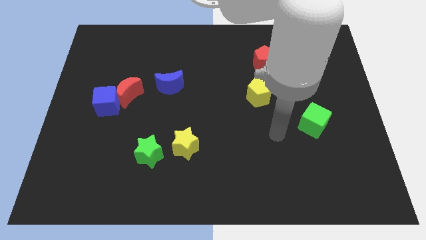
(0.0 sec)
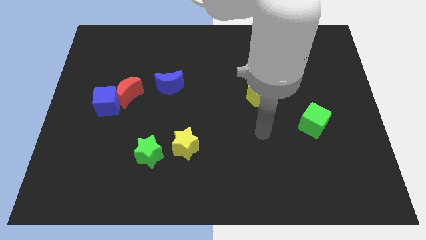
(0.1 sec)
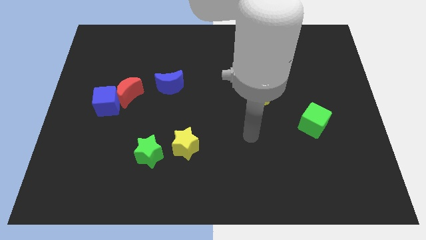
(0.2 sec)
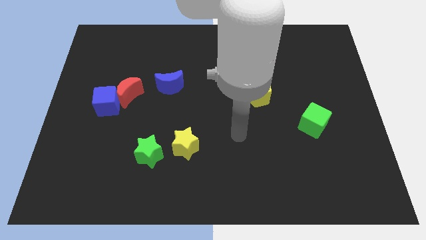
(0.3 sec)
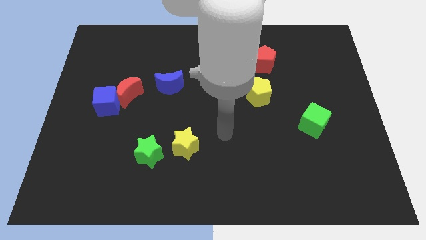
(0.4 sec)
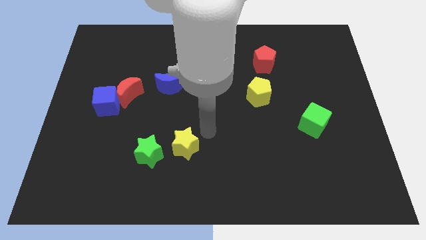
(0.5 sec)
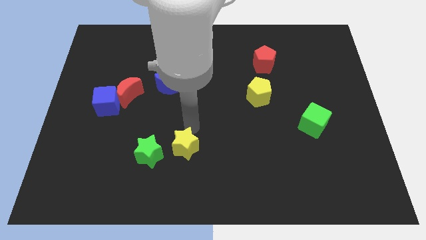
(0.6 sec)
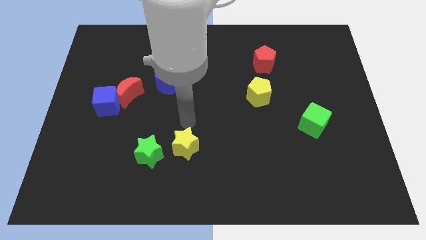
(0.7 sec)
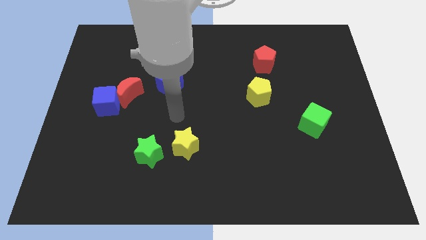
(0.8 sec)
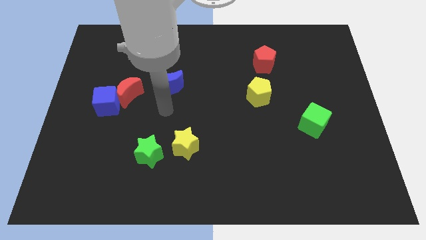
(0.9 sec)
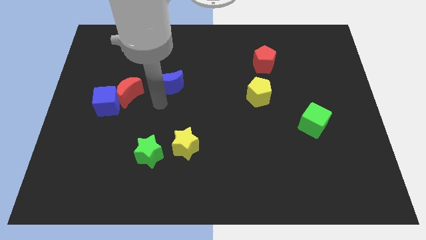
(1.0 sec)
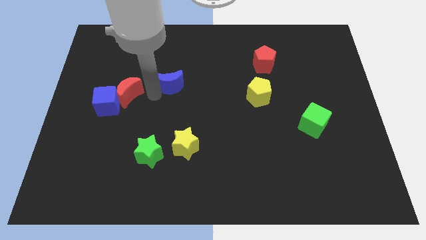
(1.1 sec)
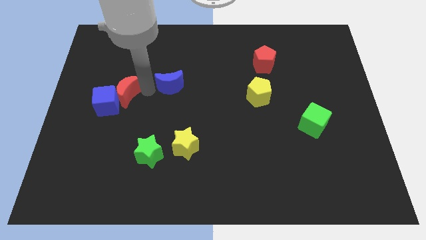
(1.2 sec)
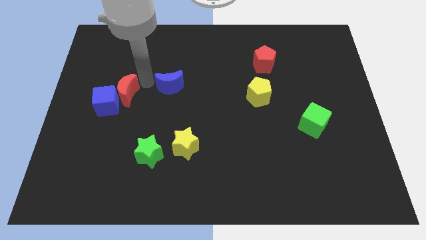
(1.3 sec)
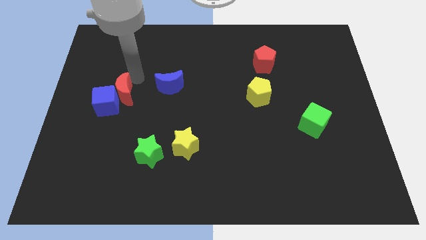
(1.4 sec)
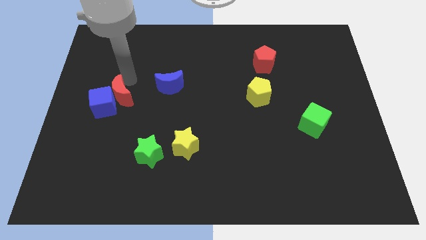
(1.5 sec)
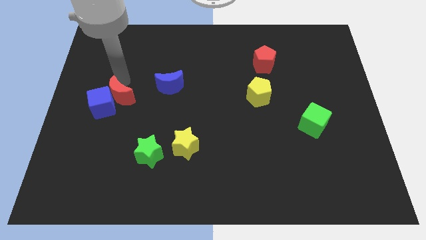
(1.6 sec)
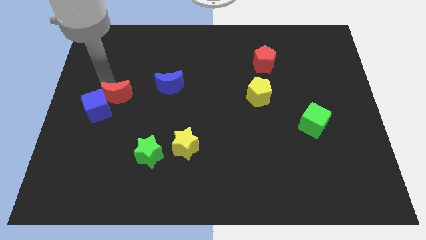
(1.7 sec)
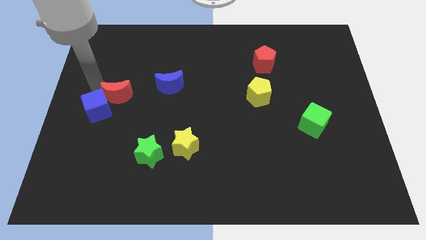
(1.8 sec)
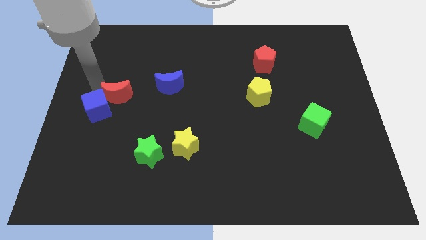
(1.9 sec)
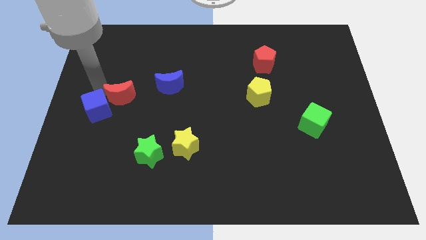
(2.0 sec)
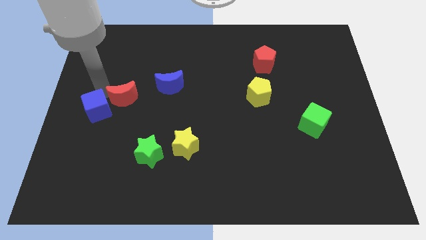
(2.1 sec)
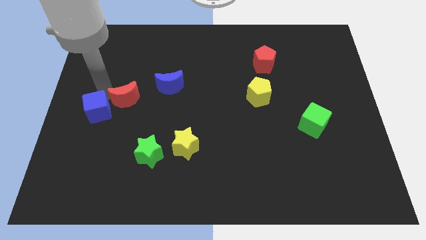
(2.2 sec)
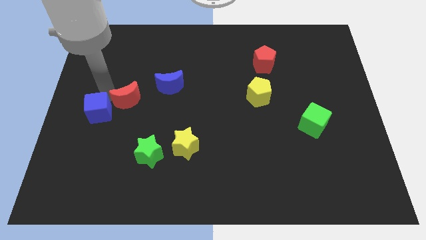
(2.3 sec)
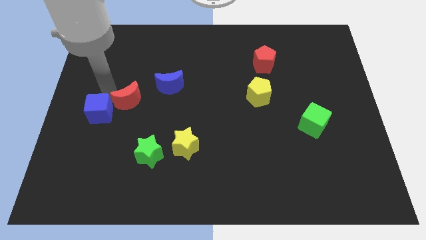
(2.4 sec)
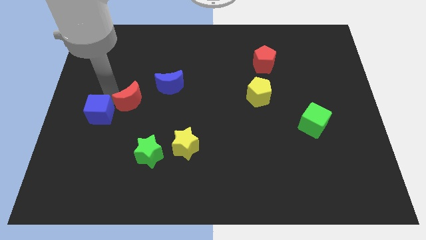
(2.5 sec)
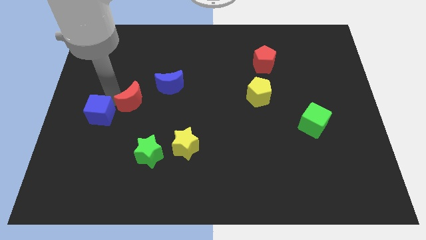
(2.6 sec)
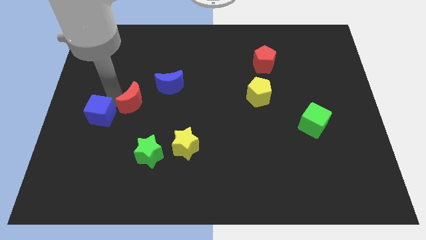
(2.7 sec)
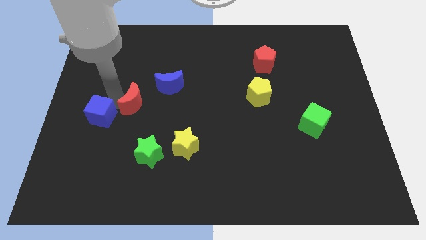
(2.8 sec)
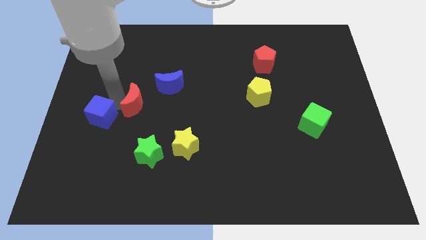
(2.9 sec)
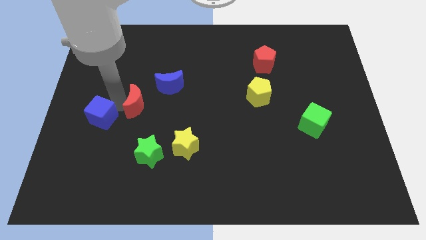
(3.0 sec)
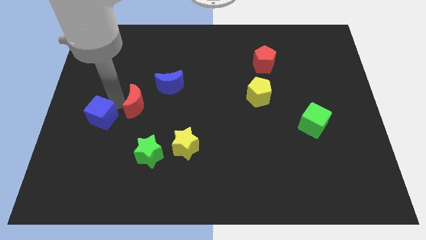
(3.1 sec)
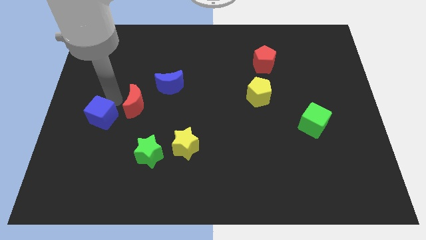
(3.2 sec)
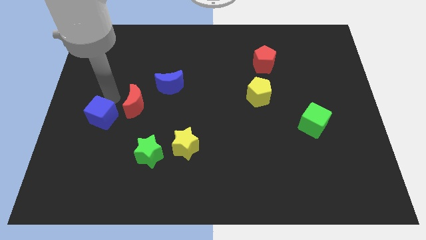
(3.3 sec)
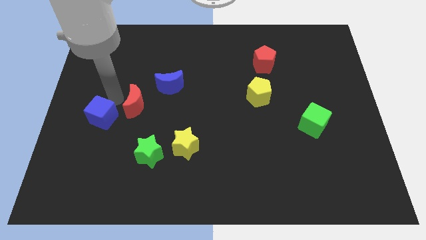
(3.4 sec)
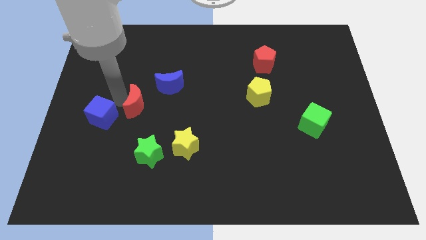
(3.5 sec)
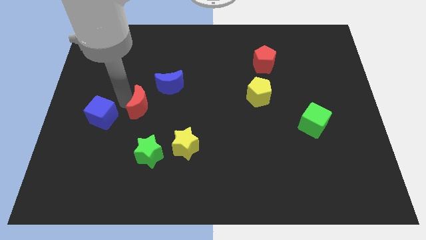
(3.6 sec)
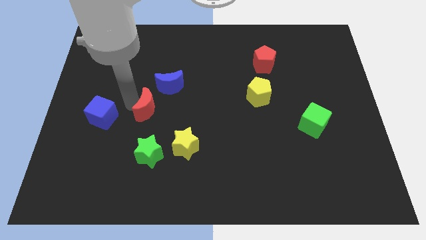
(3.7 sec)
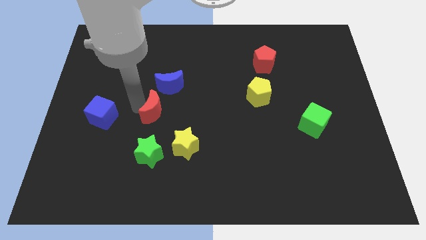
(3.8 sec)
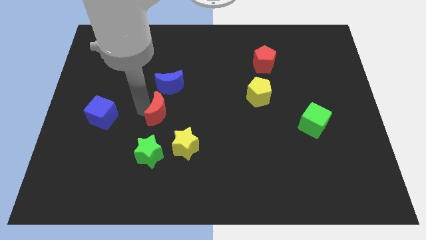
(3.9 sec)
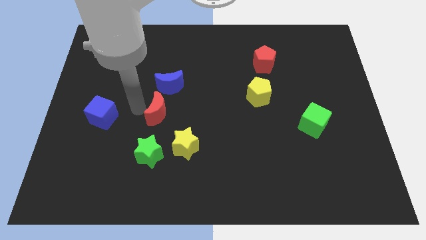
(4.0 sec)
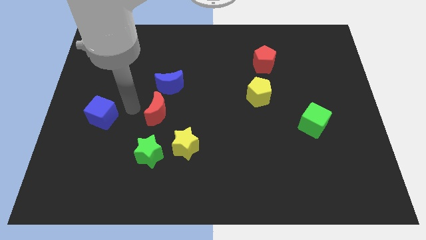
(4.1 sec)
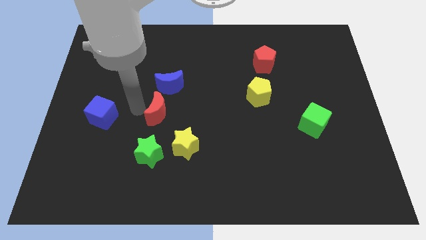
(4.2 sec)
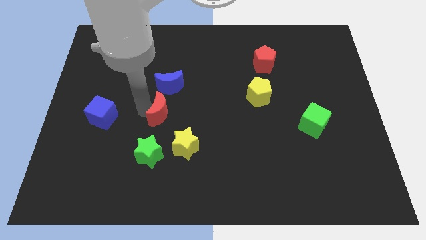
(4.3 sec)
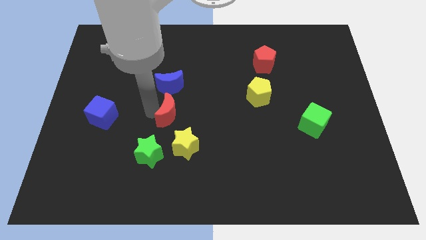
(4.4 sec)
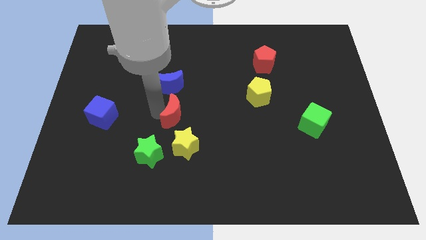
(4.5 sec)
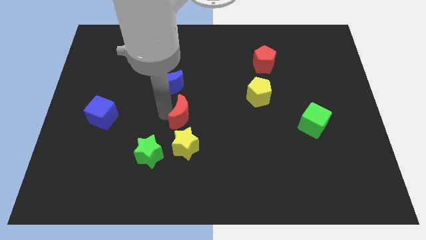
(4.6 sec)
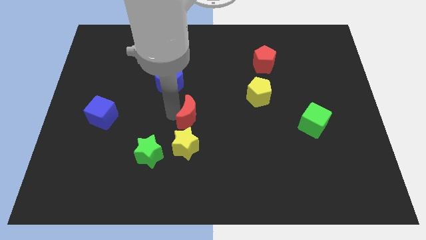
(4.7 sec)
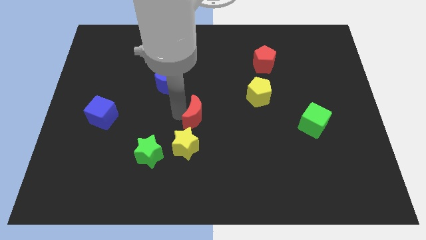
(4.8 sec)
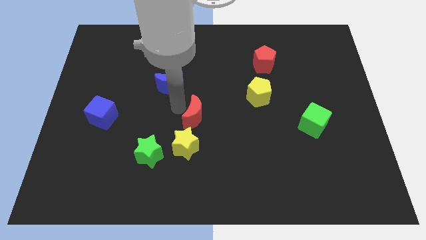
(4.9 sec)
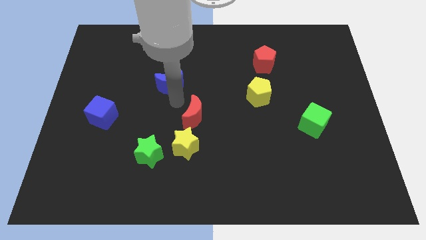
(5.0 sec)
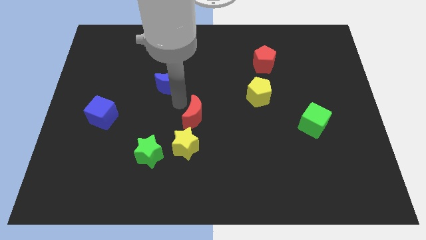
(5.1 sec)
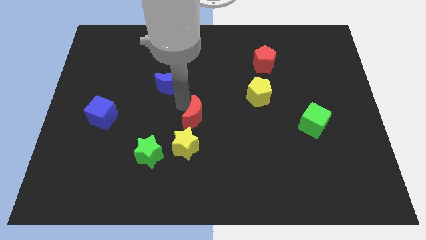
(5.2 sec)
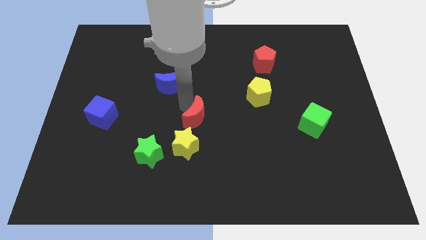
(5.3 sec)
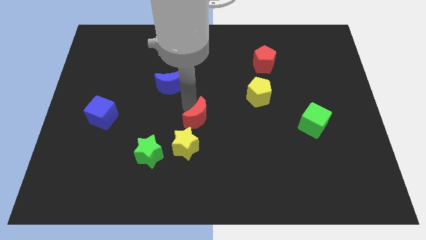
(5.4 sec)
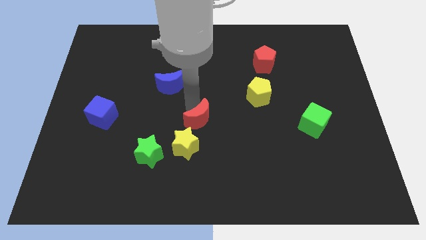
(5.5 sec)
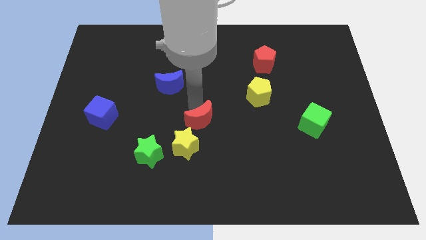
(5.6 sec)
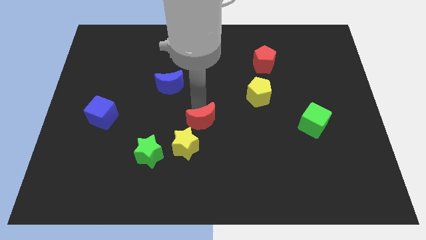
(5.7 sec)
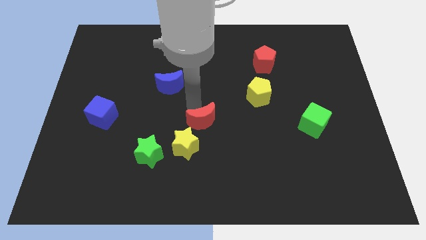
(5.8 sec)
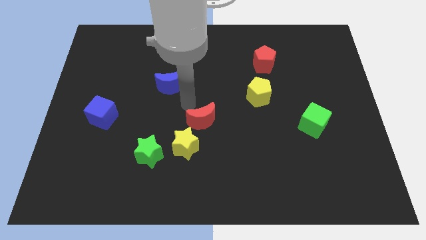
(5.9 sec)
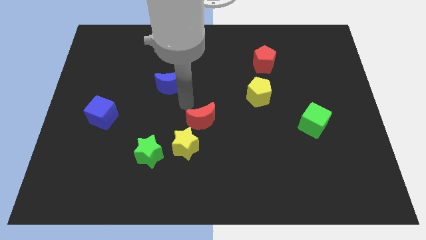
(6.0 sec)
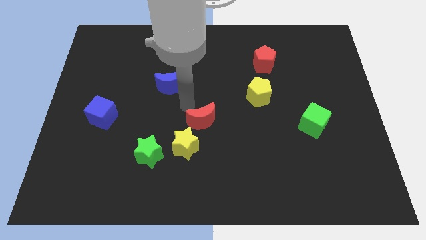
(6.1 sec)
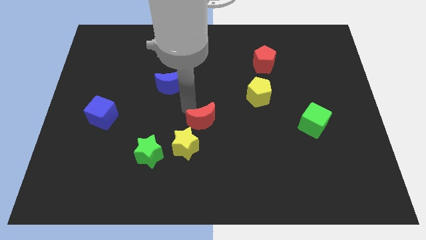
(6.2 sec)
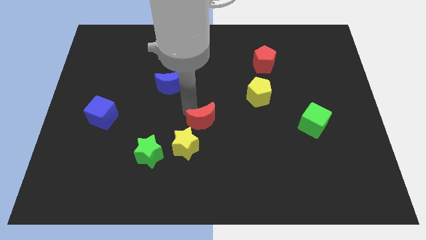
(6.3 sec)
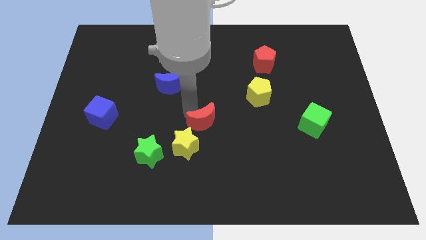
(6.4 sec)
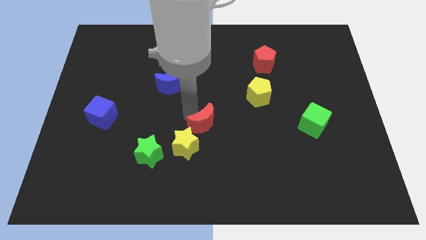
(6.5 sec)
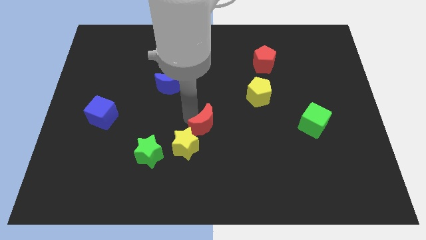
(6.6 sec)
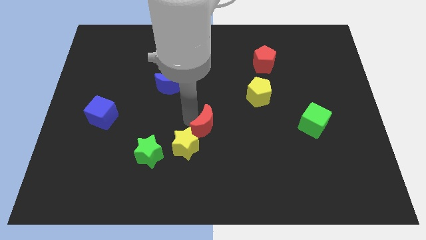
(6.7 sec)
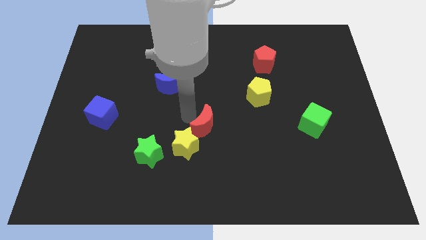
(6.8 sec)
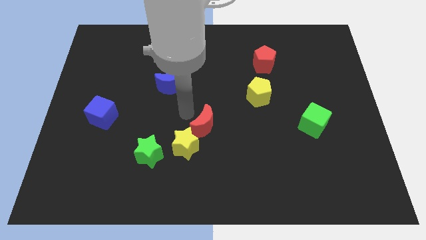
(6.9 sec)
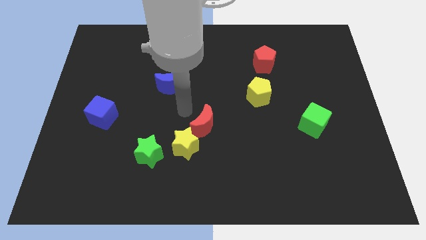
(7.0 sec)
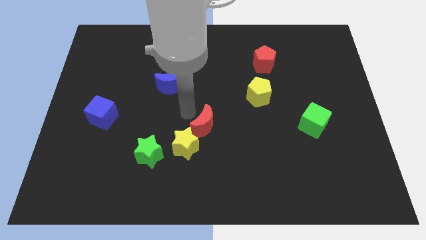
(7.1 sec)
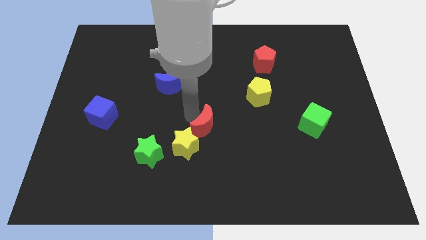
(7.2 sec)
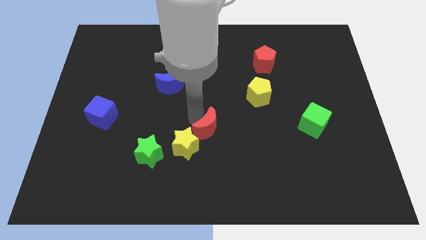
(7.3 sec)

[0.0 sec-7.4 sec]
slide the red moon to the right of the yellow star
